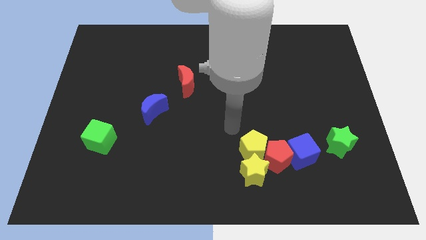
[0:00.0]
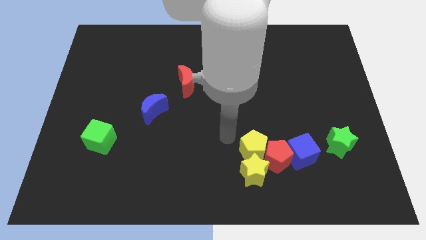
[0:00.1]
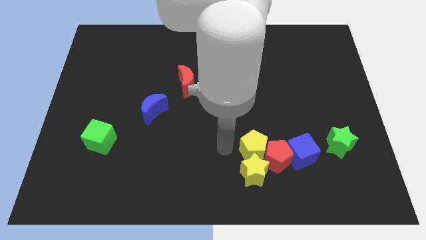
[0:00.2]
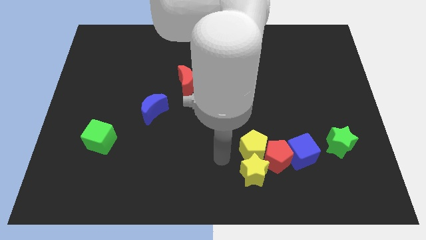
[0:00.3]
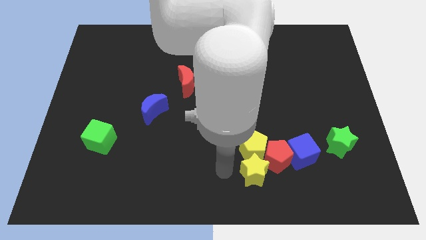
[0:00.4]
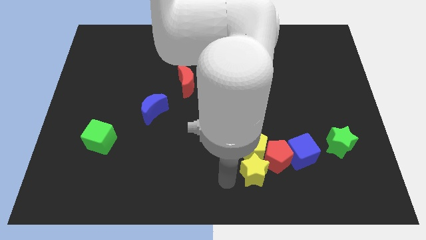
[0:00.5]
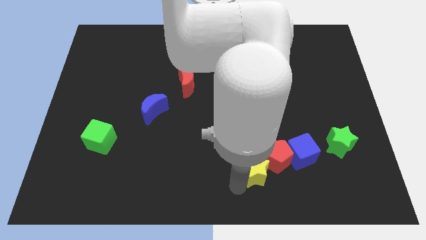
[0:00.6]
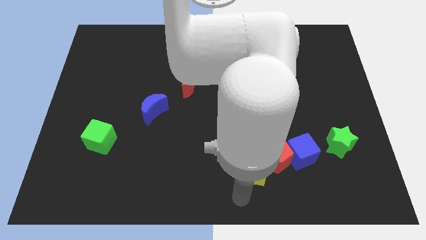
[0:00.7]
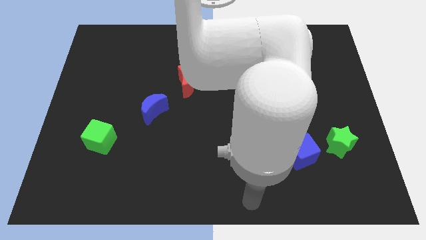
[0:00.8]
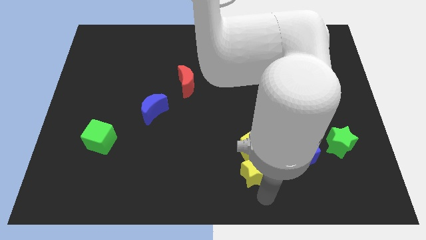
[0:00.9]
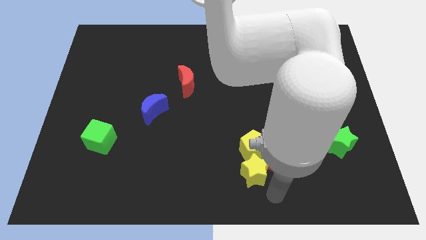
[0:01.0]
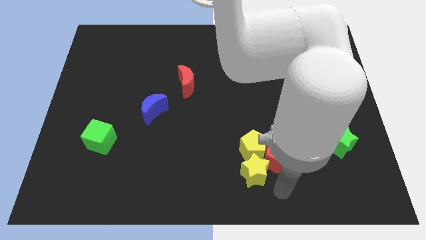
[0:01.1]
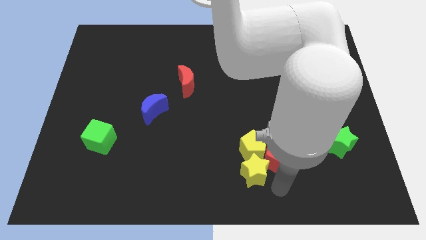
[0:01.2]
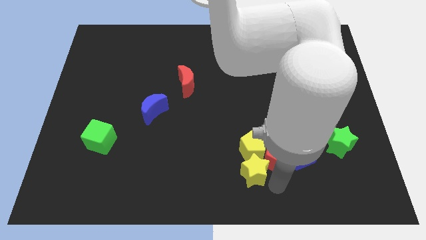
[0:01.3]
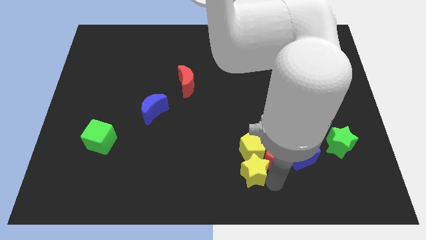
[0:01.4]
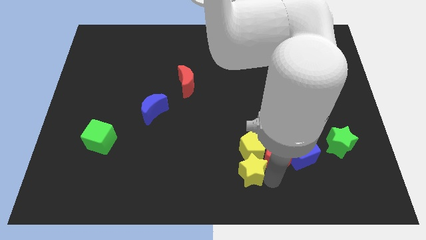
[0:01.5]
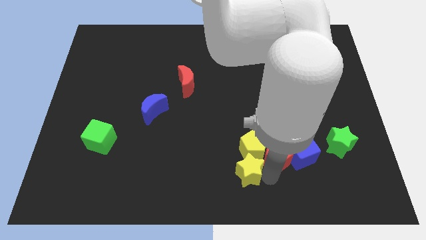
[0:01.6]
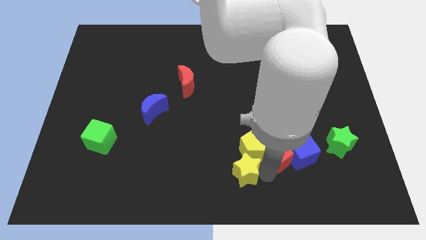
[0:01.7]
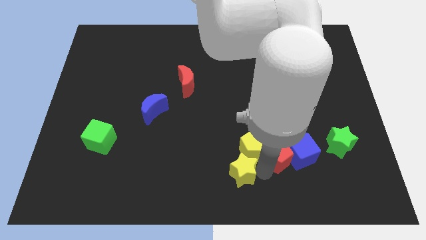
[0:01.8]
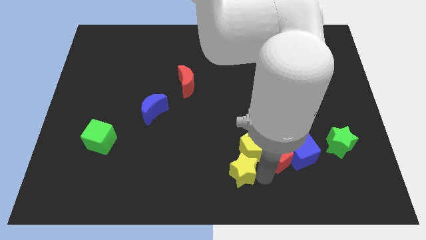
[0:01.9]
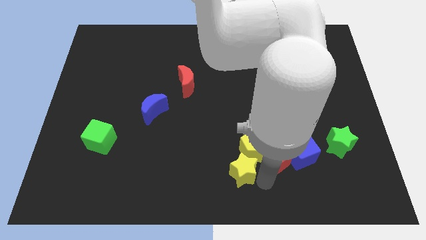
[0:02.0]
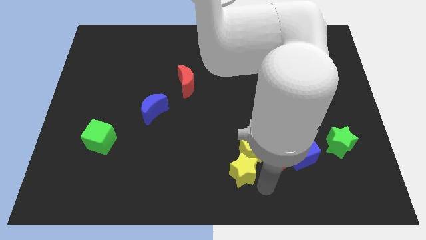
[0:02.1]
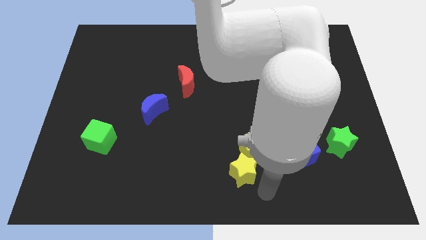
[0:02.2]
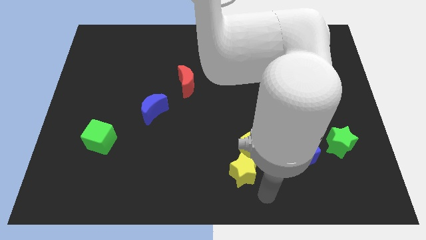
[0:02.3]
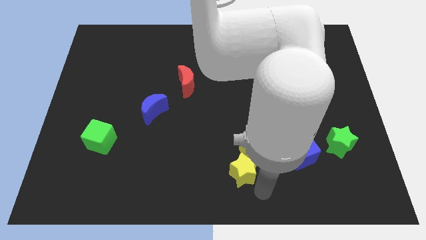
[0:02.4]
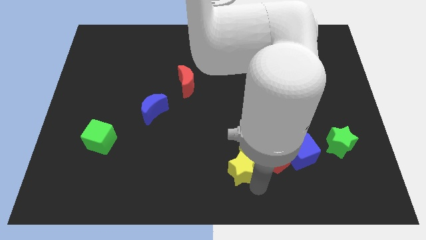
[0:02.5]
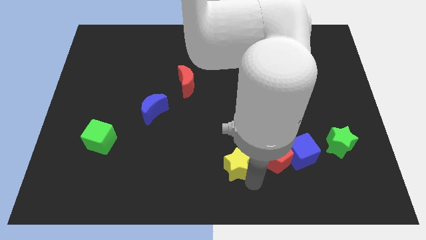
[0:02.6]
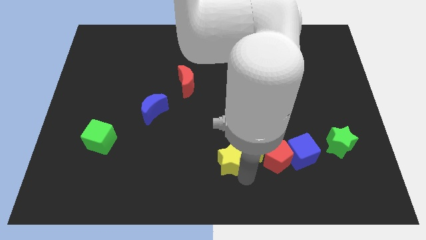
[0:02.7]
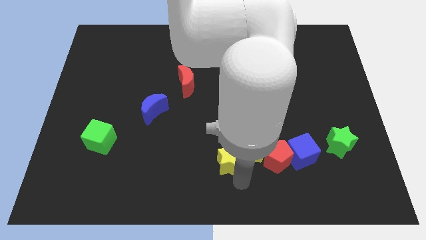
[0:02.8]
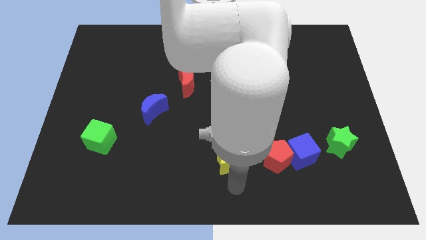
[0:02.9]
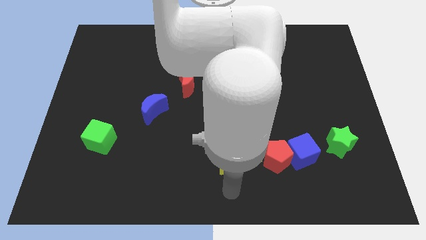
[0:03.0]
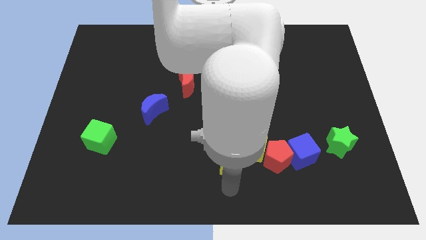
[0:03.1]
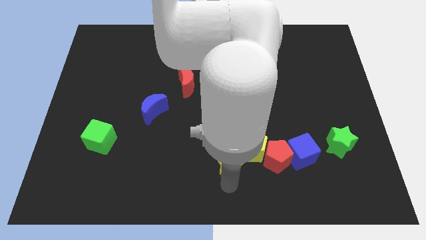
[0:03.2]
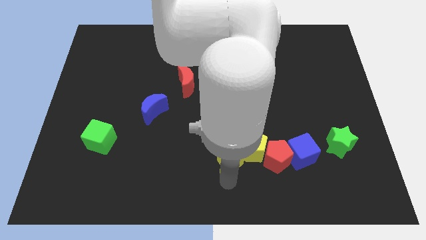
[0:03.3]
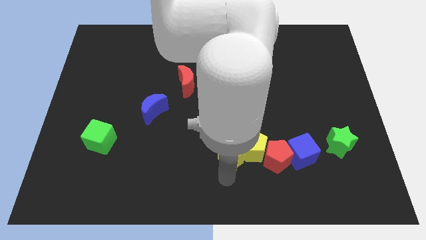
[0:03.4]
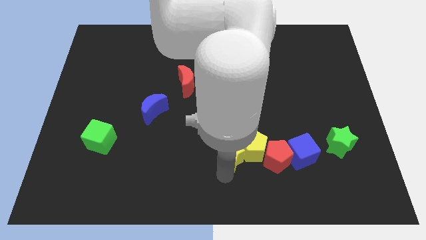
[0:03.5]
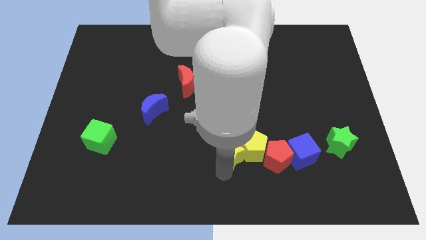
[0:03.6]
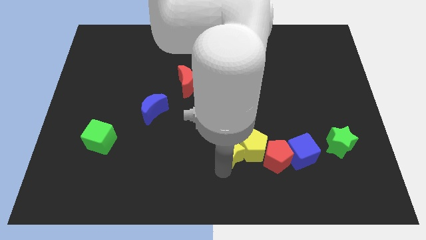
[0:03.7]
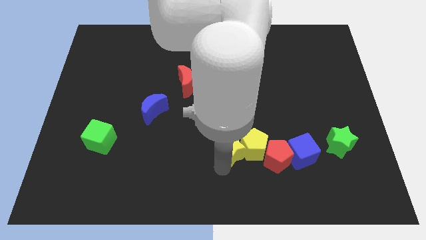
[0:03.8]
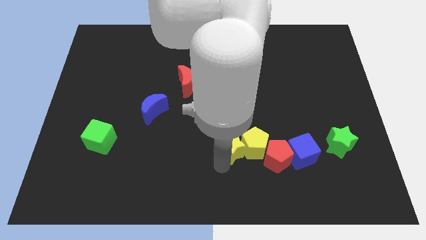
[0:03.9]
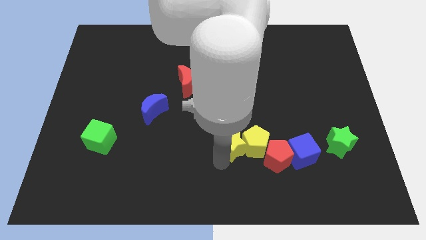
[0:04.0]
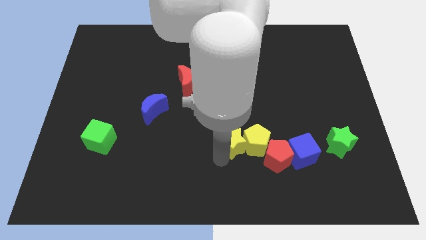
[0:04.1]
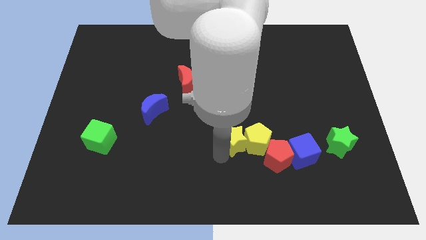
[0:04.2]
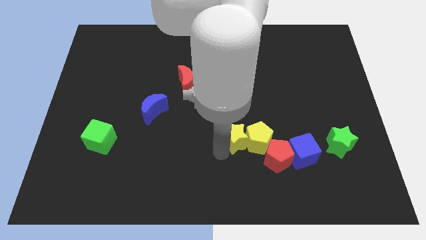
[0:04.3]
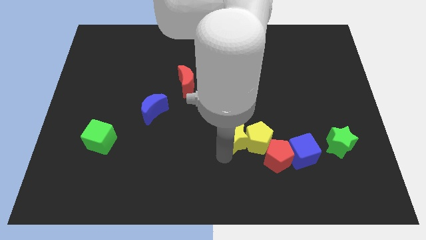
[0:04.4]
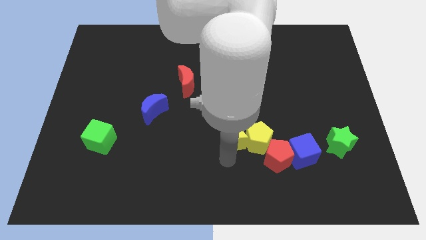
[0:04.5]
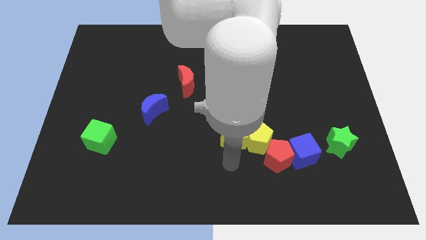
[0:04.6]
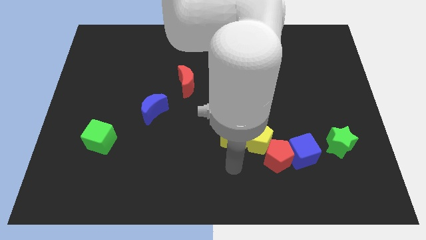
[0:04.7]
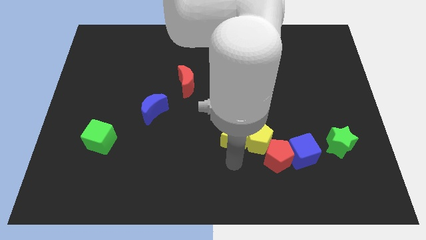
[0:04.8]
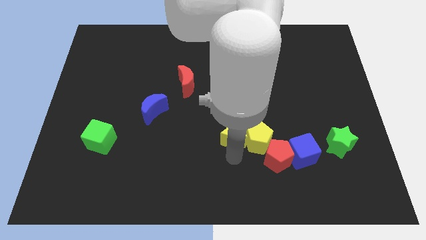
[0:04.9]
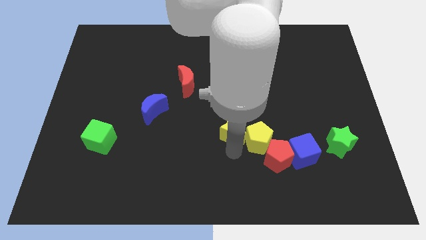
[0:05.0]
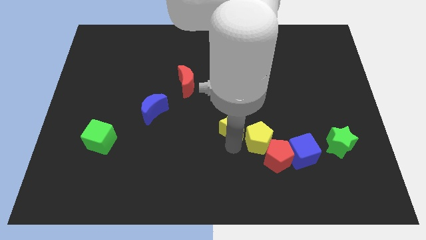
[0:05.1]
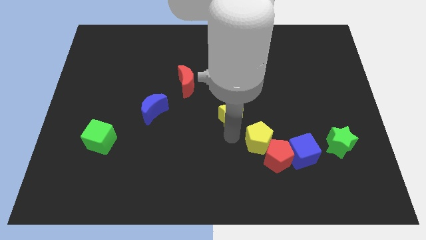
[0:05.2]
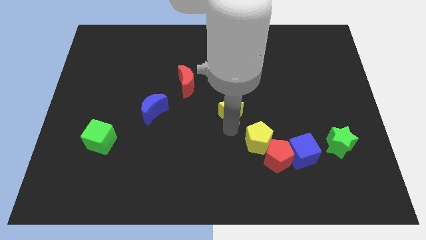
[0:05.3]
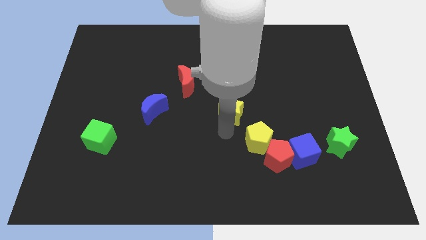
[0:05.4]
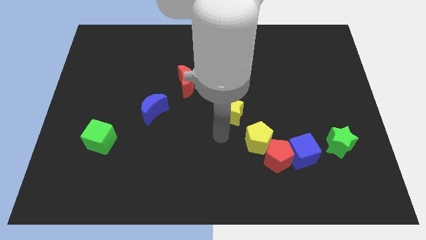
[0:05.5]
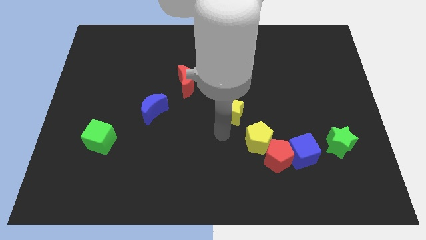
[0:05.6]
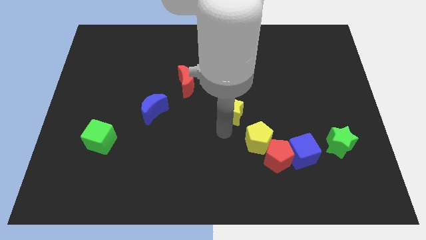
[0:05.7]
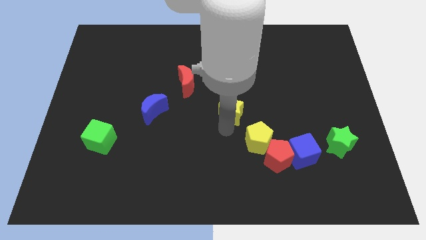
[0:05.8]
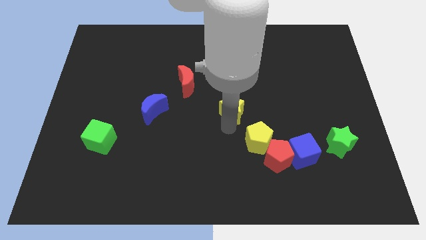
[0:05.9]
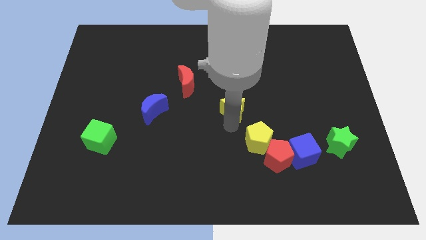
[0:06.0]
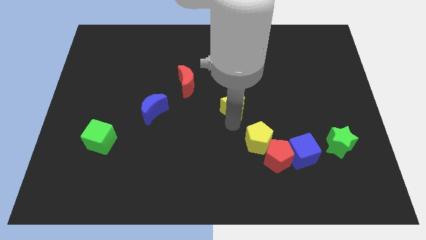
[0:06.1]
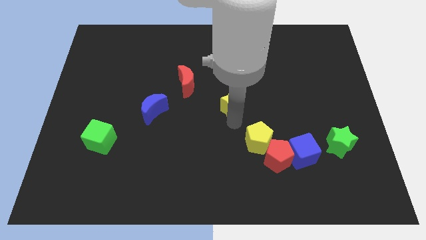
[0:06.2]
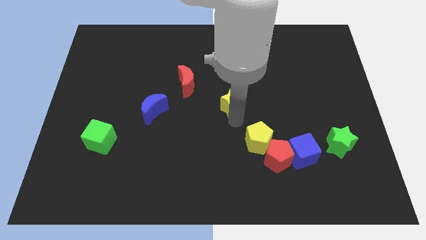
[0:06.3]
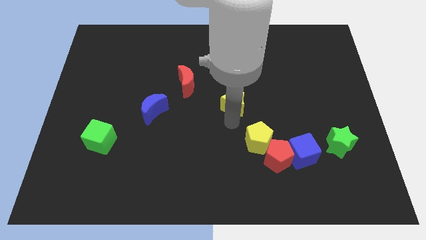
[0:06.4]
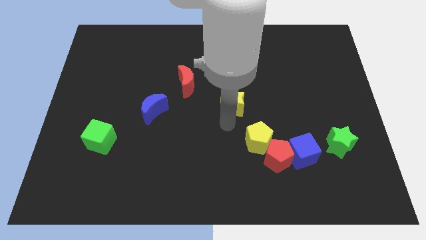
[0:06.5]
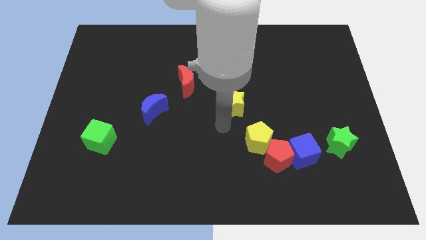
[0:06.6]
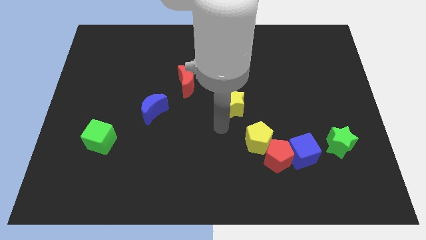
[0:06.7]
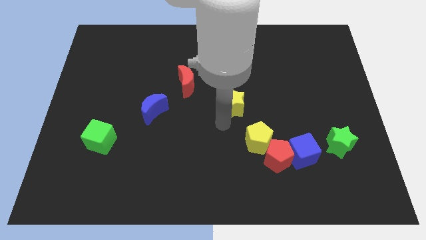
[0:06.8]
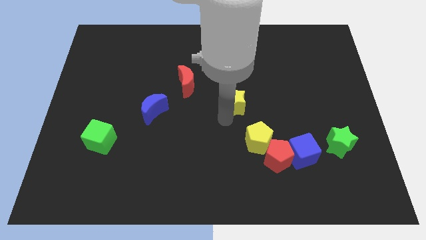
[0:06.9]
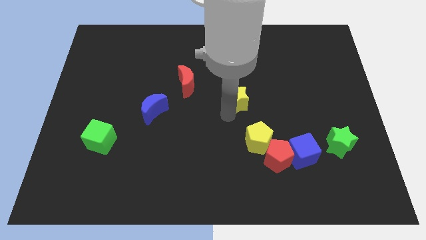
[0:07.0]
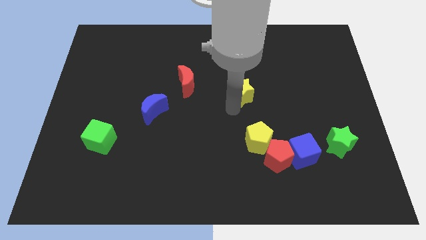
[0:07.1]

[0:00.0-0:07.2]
push the yellow star upwards

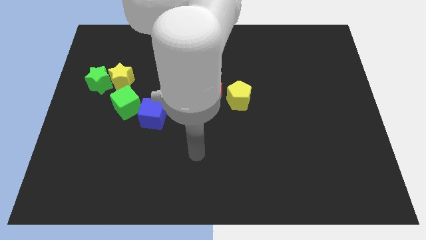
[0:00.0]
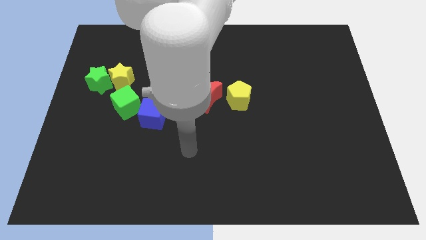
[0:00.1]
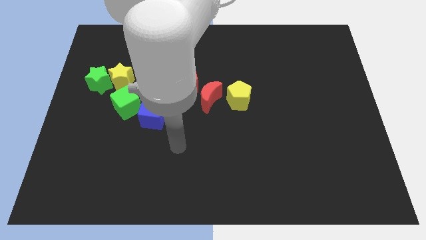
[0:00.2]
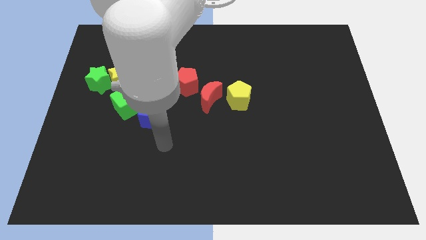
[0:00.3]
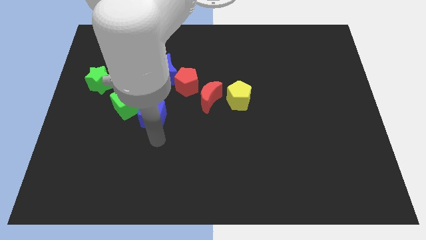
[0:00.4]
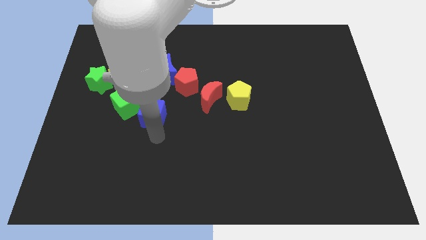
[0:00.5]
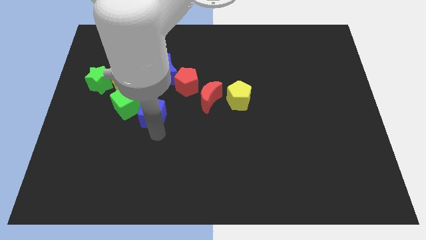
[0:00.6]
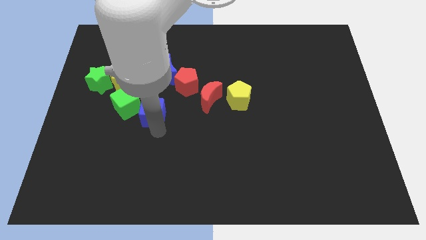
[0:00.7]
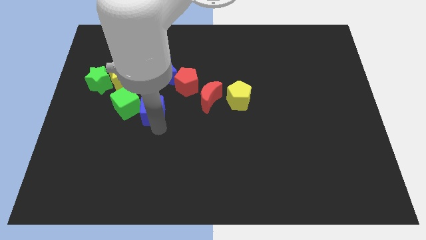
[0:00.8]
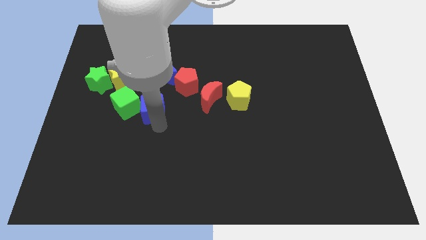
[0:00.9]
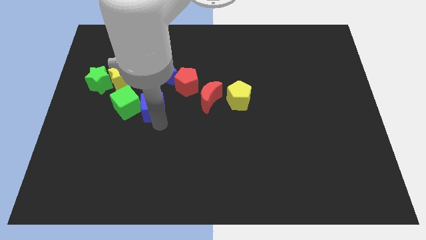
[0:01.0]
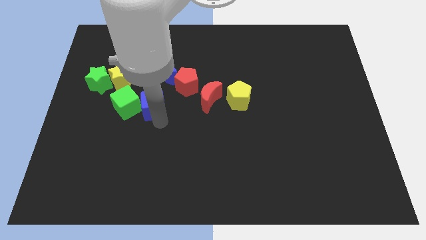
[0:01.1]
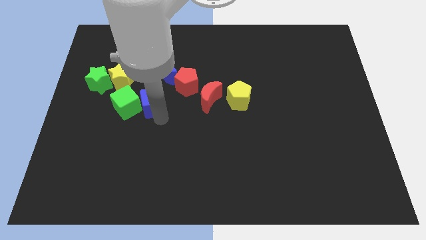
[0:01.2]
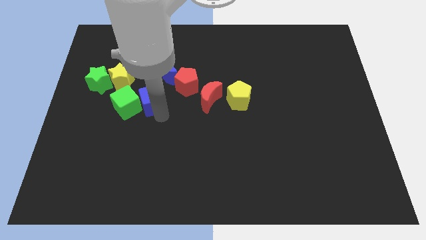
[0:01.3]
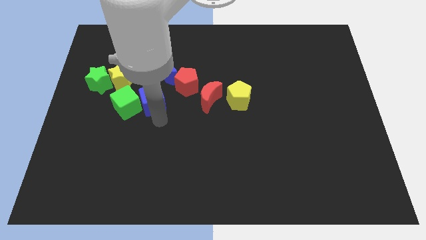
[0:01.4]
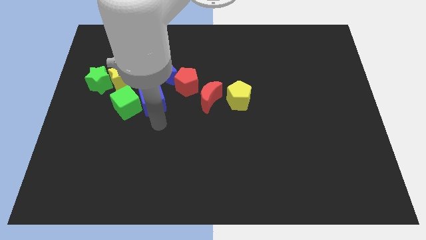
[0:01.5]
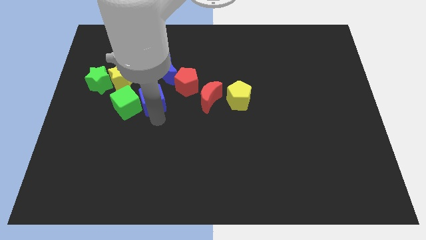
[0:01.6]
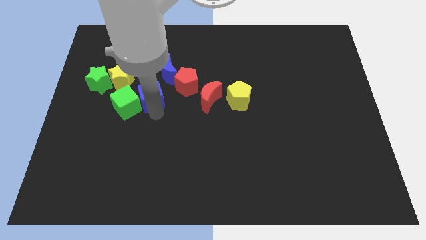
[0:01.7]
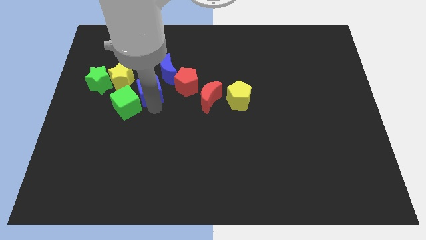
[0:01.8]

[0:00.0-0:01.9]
push the blue cube up a little
